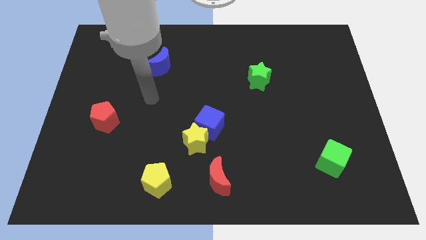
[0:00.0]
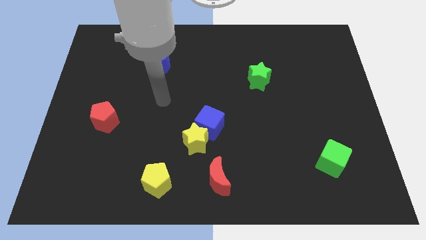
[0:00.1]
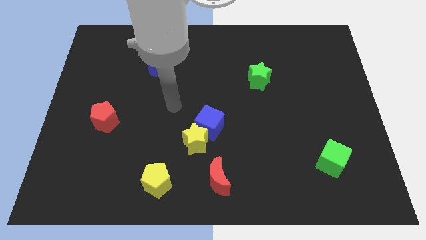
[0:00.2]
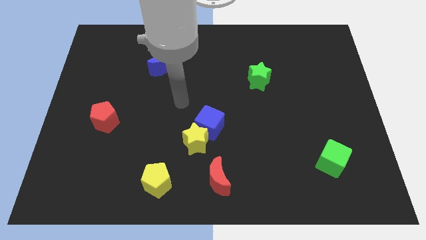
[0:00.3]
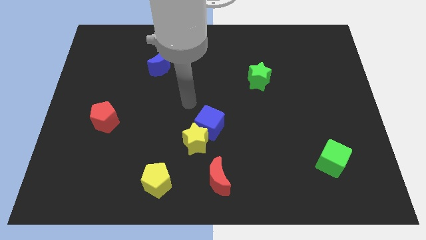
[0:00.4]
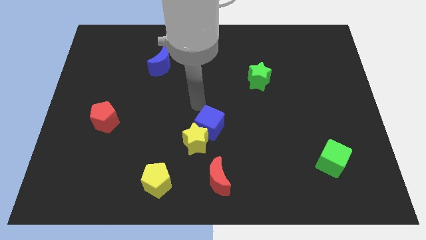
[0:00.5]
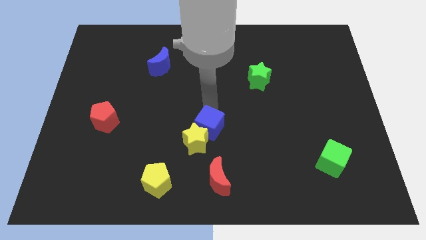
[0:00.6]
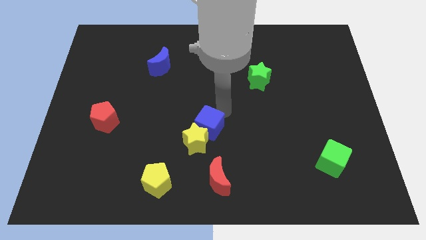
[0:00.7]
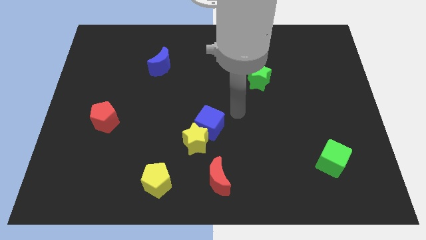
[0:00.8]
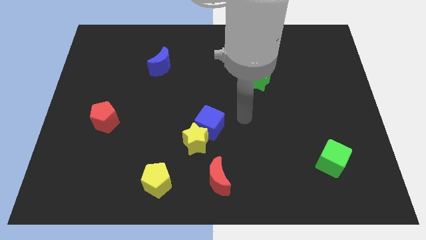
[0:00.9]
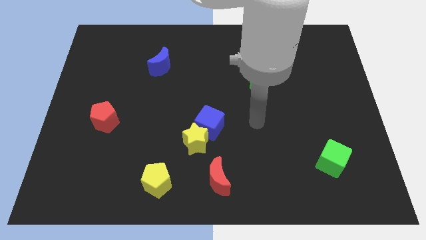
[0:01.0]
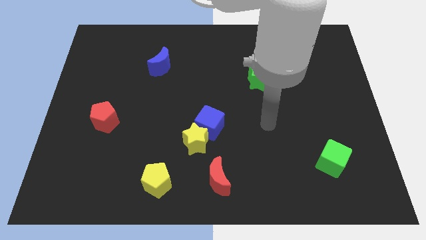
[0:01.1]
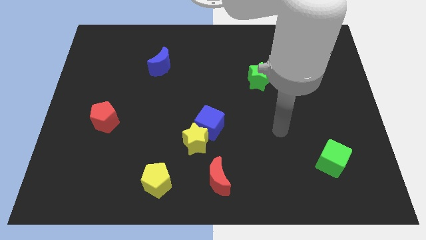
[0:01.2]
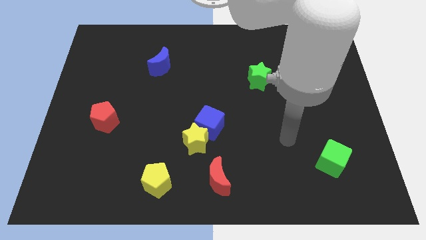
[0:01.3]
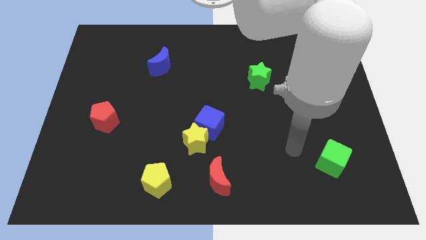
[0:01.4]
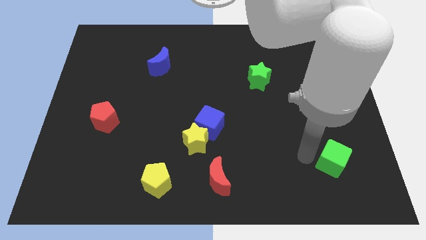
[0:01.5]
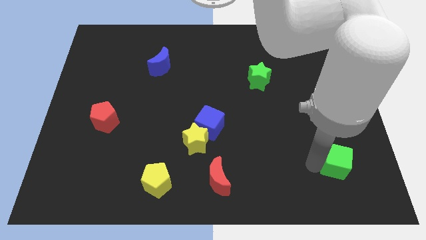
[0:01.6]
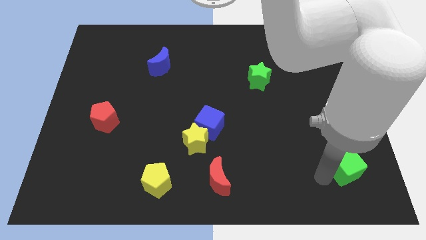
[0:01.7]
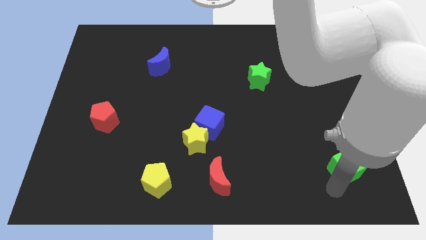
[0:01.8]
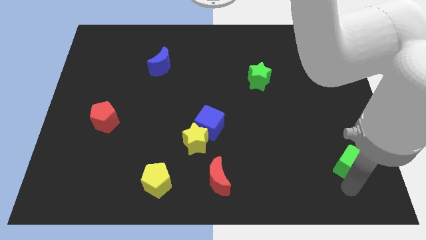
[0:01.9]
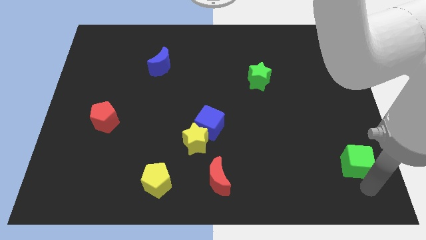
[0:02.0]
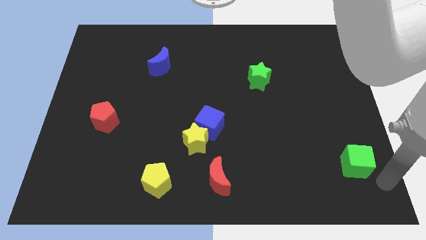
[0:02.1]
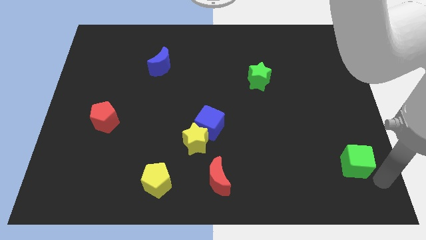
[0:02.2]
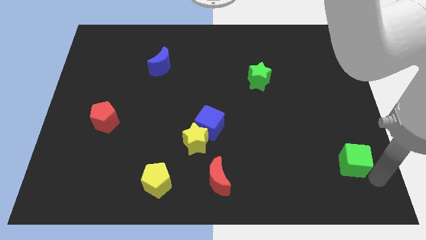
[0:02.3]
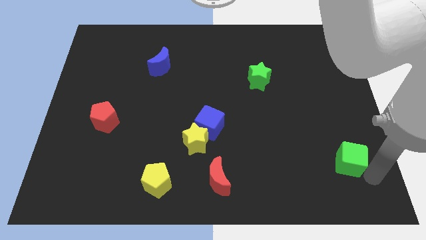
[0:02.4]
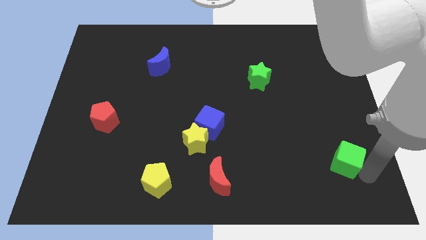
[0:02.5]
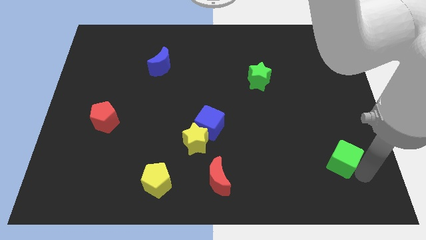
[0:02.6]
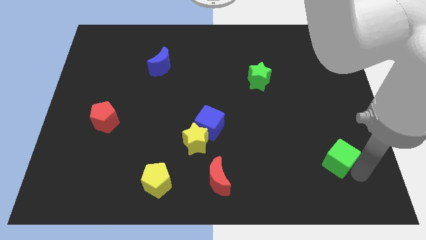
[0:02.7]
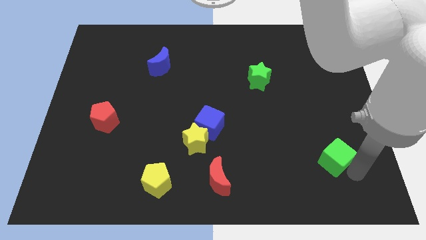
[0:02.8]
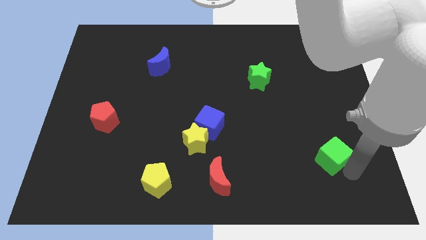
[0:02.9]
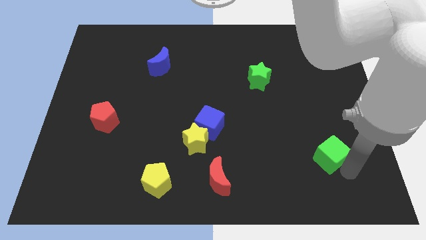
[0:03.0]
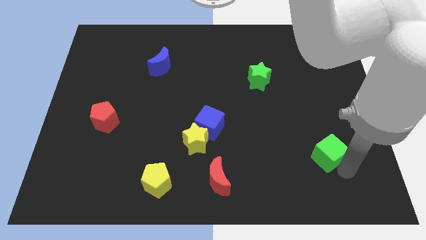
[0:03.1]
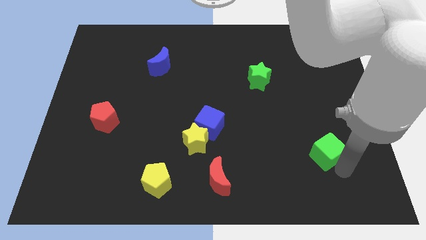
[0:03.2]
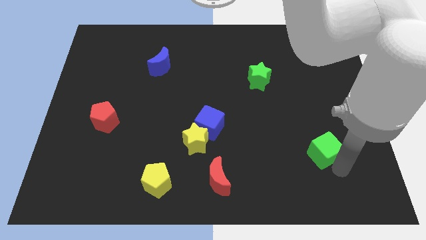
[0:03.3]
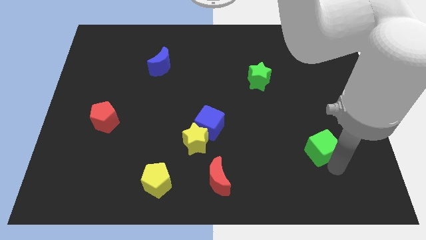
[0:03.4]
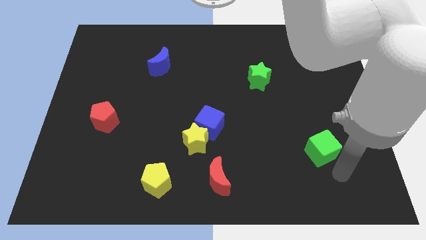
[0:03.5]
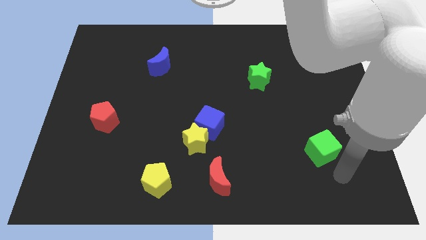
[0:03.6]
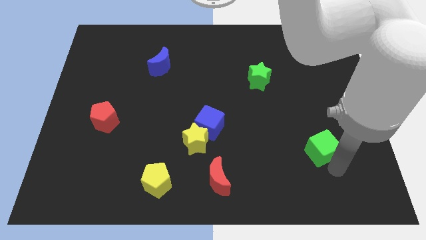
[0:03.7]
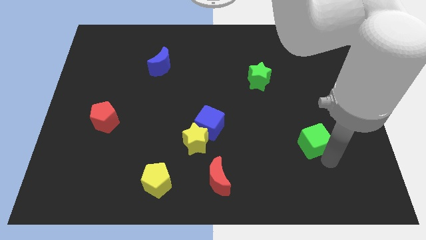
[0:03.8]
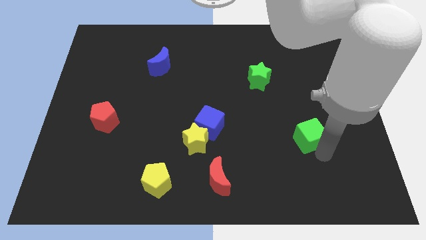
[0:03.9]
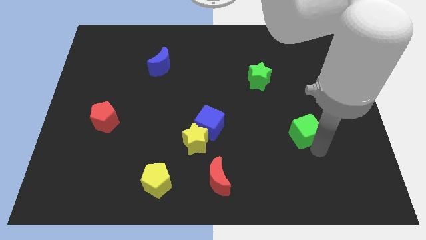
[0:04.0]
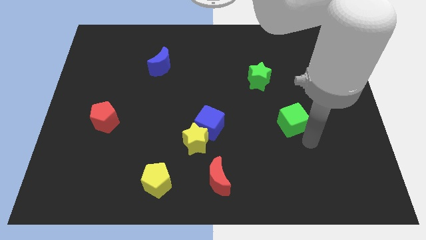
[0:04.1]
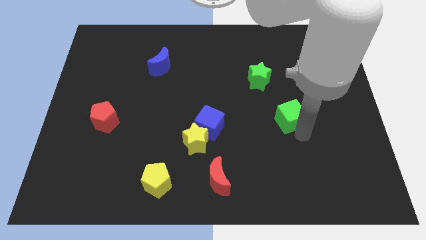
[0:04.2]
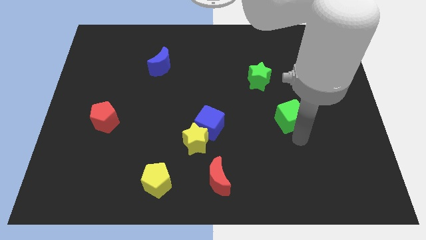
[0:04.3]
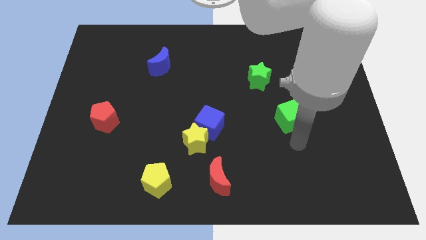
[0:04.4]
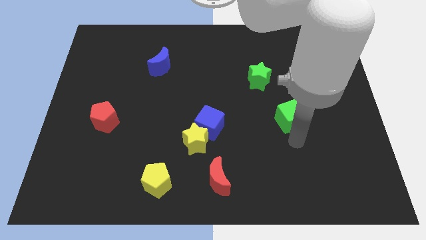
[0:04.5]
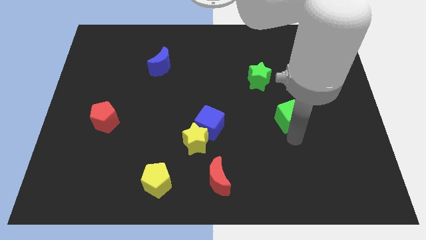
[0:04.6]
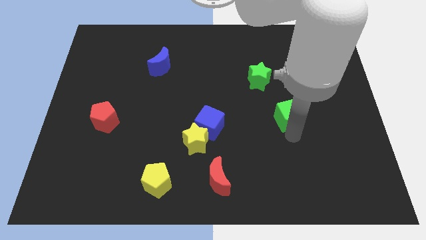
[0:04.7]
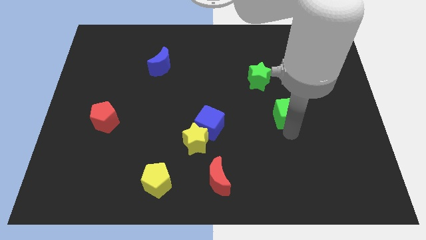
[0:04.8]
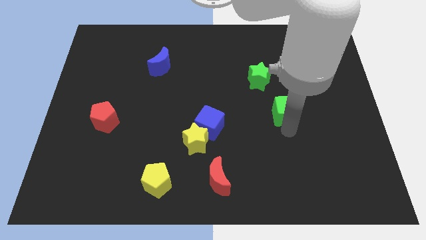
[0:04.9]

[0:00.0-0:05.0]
slide the green cube to the bottom right of the green star
